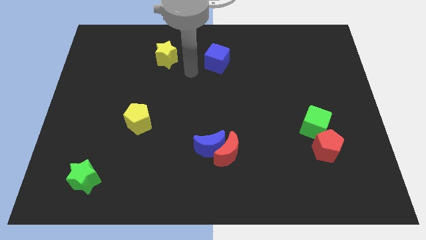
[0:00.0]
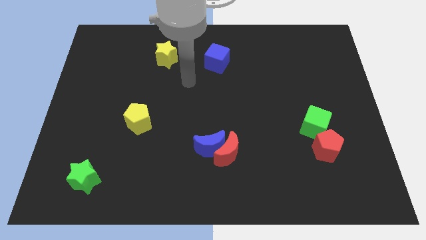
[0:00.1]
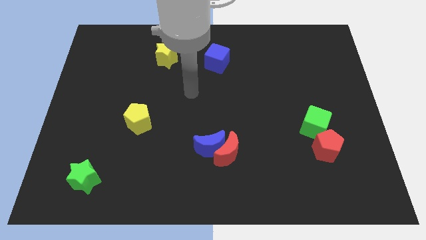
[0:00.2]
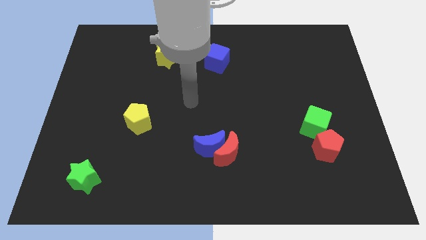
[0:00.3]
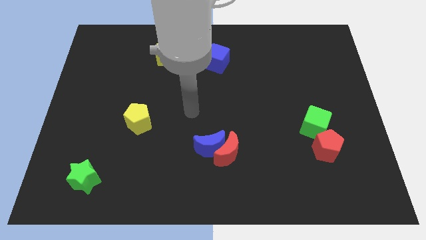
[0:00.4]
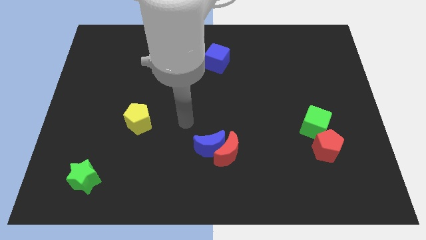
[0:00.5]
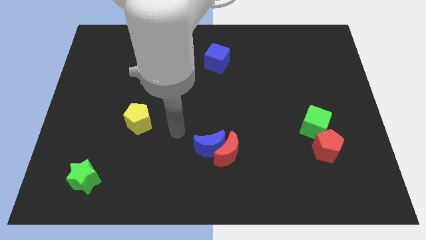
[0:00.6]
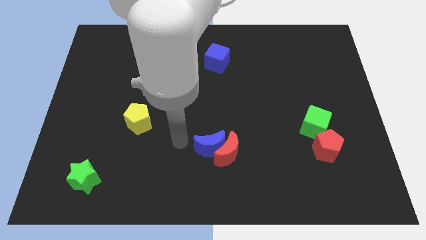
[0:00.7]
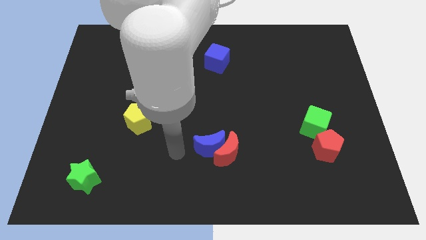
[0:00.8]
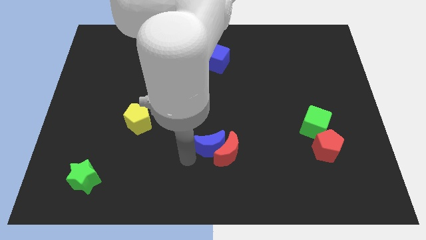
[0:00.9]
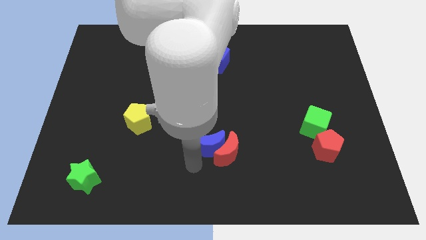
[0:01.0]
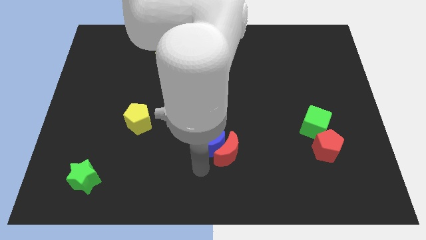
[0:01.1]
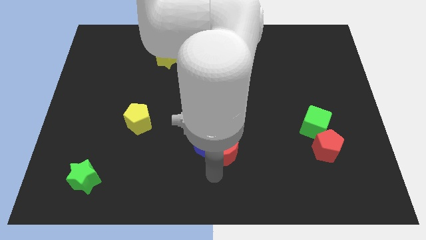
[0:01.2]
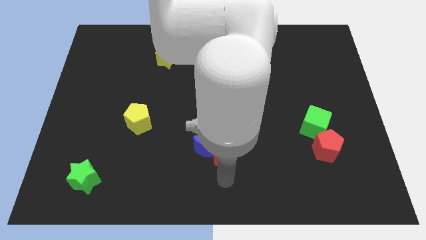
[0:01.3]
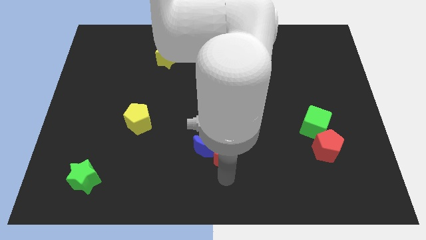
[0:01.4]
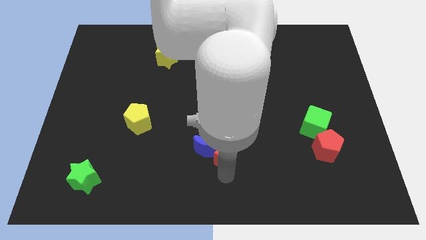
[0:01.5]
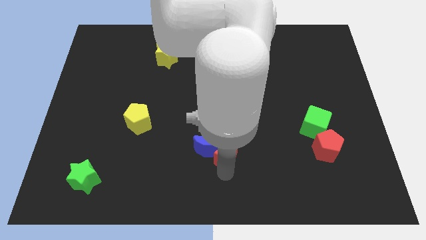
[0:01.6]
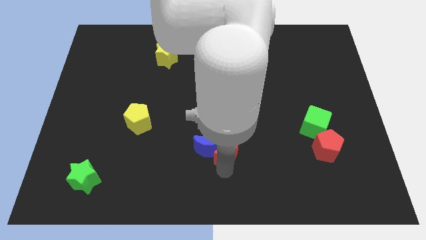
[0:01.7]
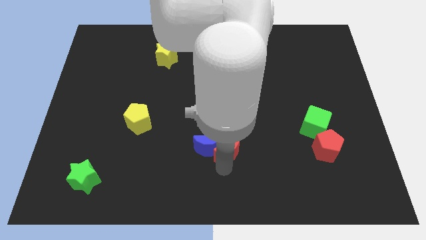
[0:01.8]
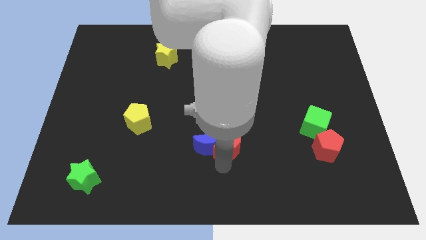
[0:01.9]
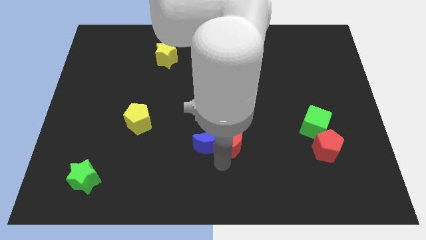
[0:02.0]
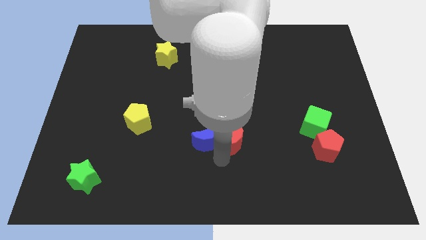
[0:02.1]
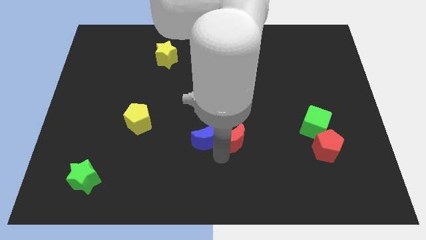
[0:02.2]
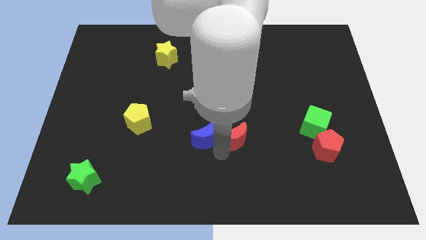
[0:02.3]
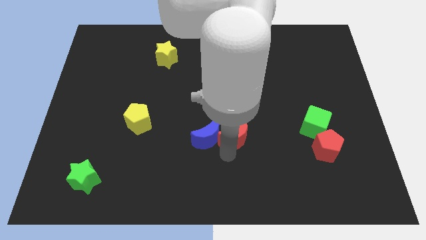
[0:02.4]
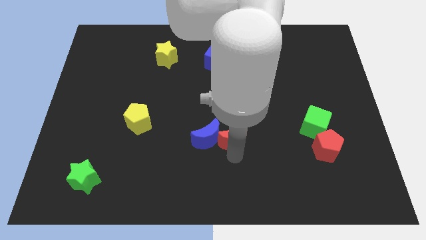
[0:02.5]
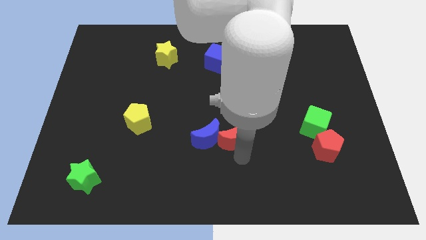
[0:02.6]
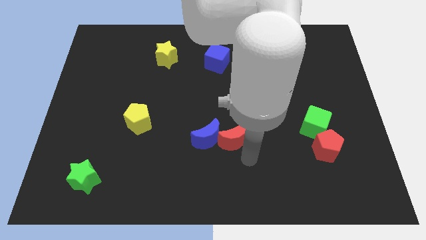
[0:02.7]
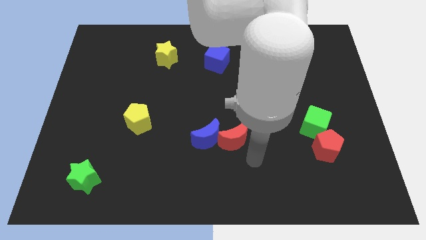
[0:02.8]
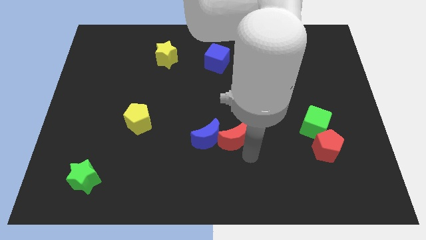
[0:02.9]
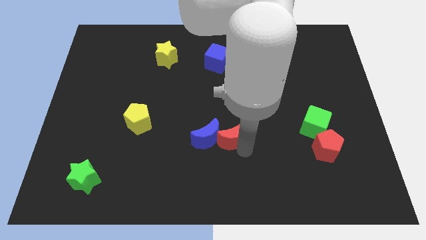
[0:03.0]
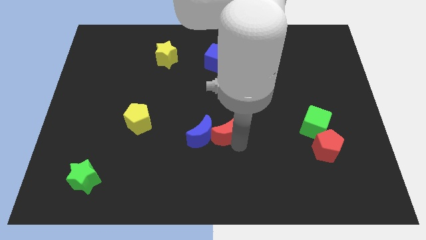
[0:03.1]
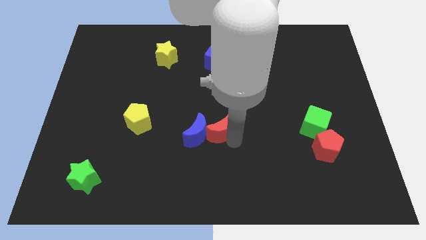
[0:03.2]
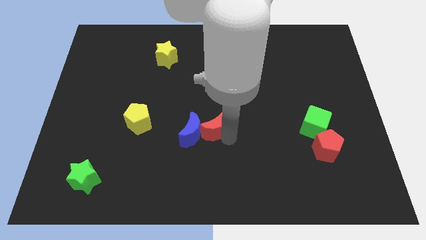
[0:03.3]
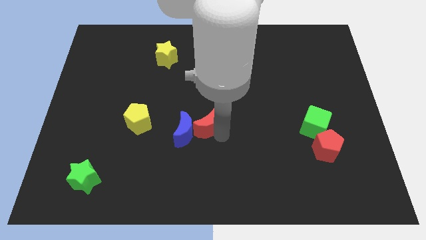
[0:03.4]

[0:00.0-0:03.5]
move the red moon upwards and then to the left a little

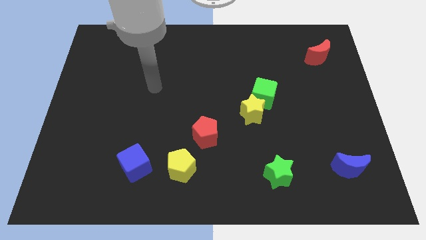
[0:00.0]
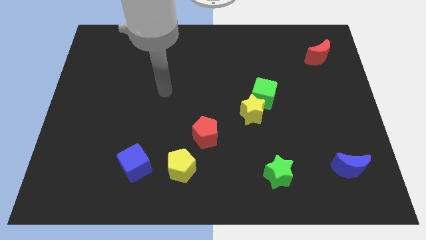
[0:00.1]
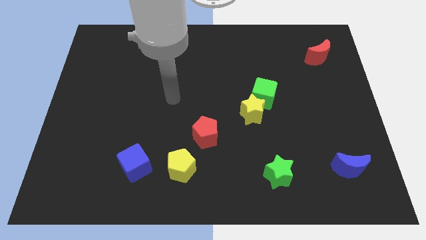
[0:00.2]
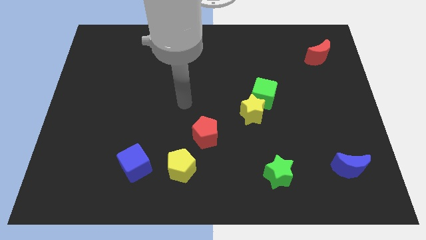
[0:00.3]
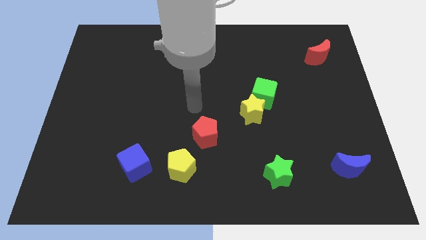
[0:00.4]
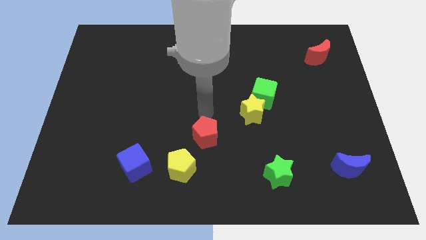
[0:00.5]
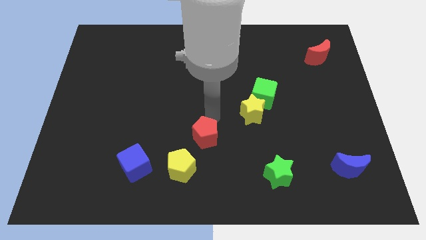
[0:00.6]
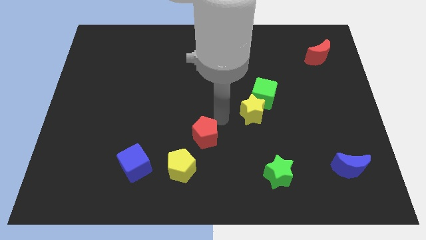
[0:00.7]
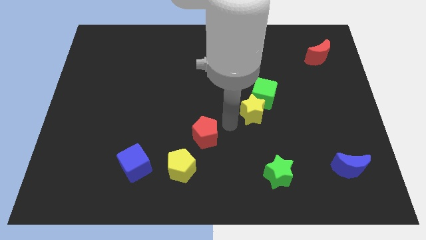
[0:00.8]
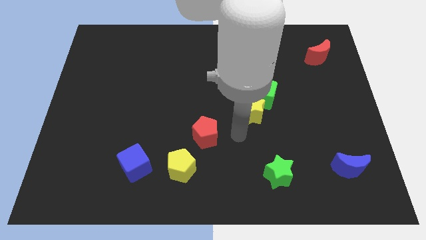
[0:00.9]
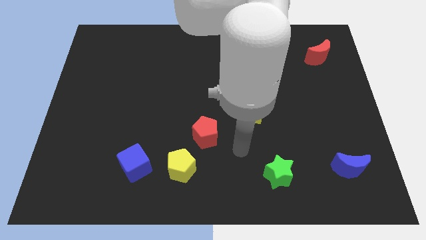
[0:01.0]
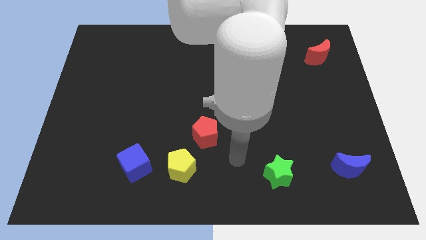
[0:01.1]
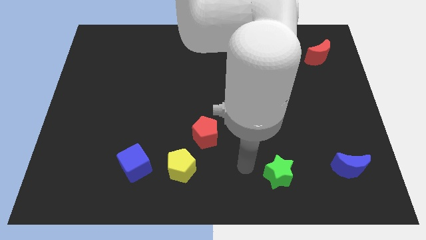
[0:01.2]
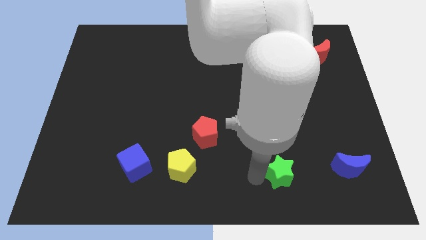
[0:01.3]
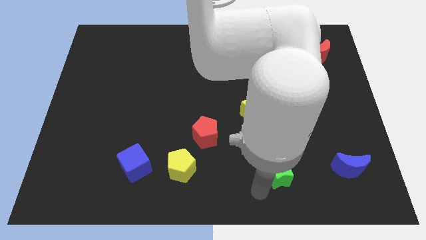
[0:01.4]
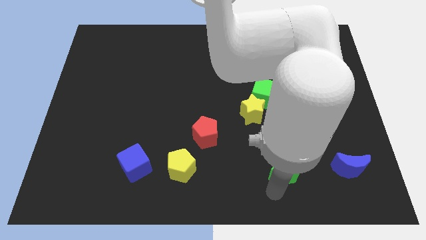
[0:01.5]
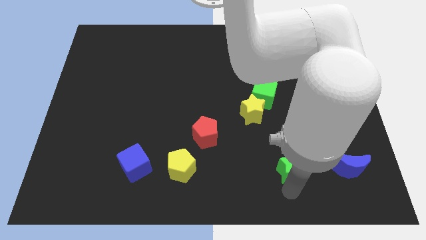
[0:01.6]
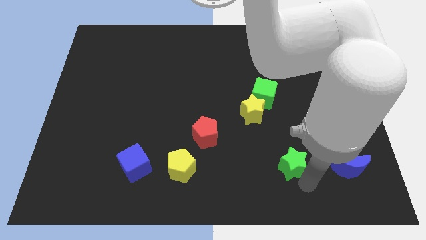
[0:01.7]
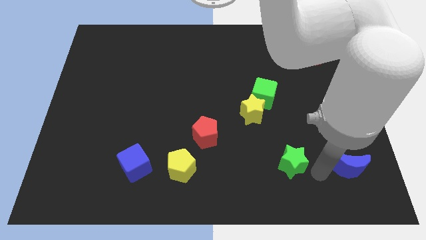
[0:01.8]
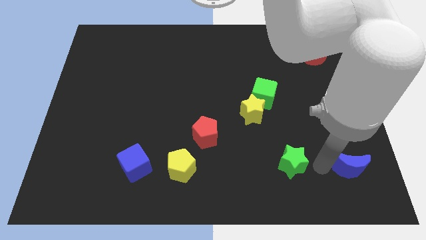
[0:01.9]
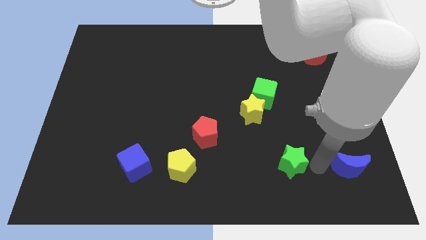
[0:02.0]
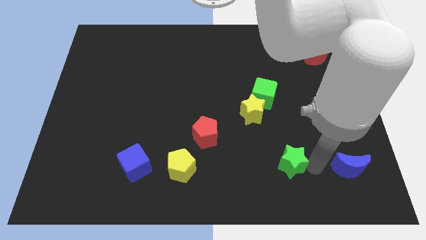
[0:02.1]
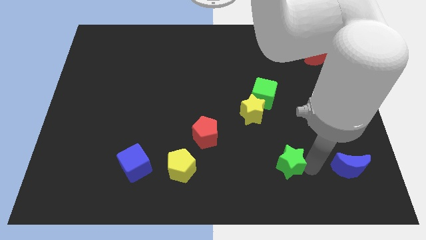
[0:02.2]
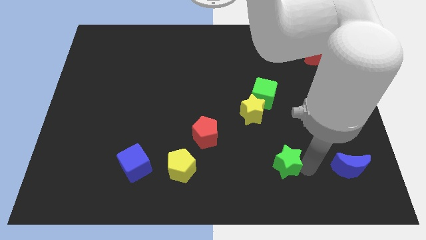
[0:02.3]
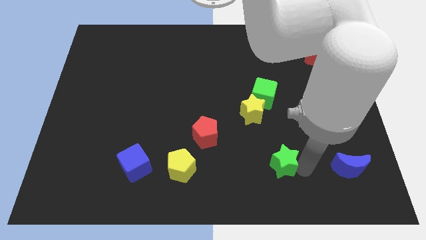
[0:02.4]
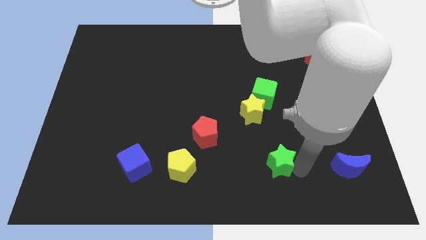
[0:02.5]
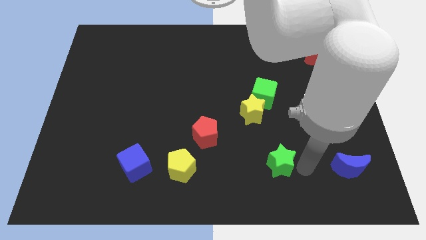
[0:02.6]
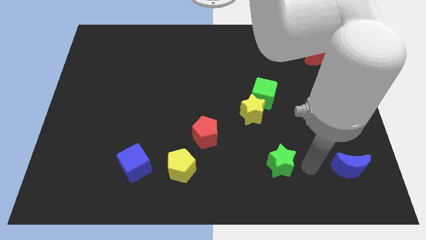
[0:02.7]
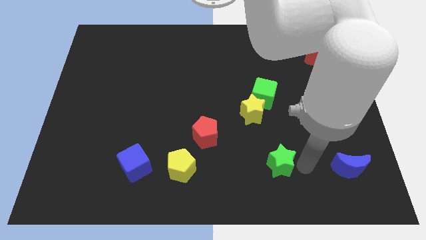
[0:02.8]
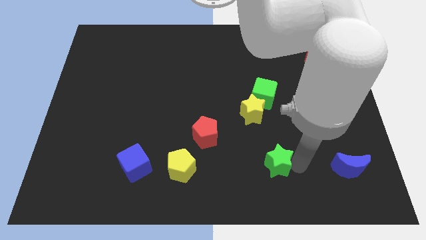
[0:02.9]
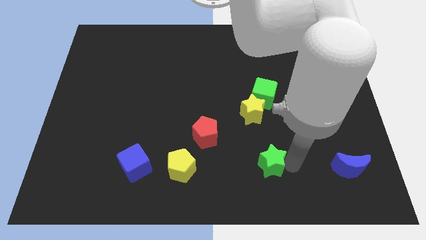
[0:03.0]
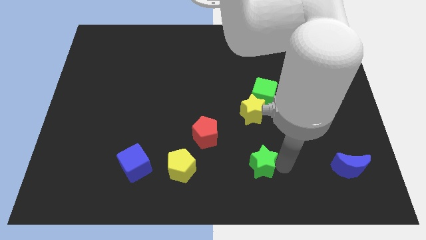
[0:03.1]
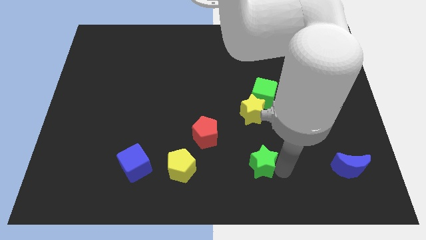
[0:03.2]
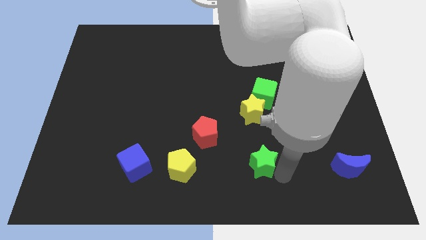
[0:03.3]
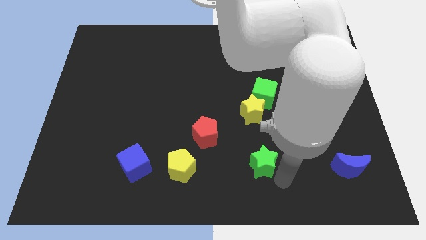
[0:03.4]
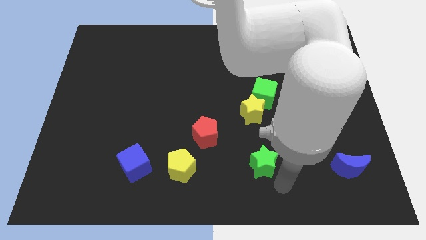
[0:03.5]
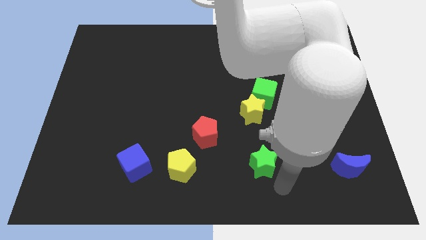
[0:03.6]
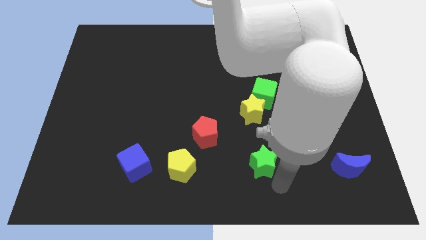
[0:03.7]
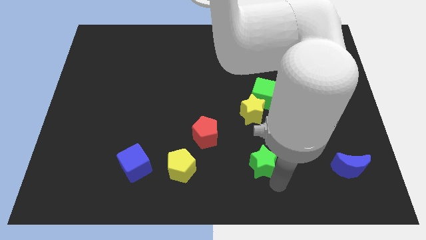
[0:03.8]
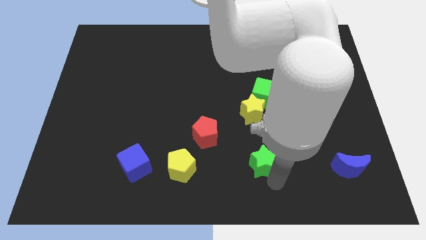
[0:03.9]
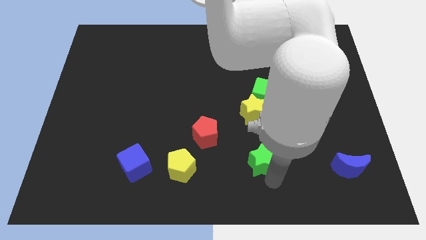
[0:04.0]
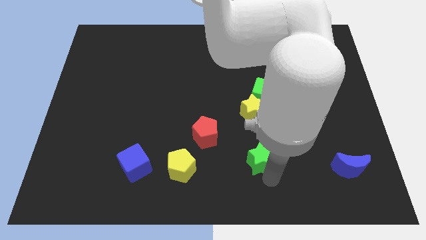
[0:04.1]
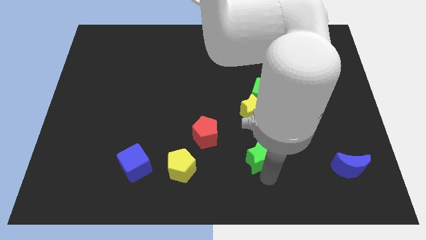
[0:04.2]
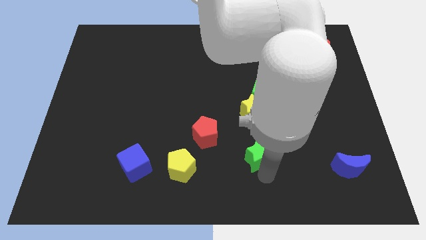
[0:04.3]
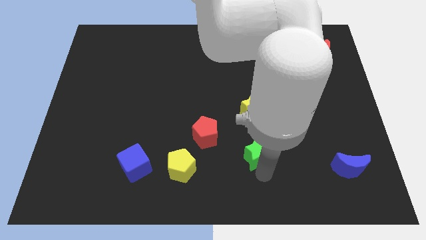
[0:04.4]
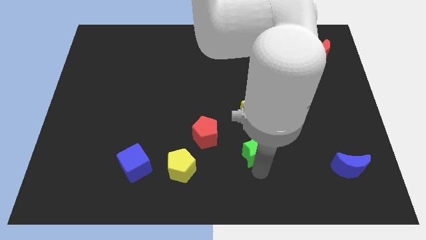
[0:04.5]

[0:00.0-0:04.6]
slightly push the green star upwards and left diagonally

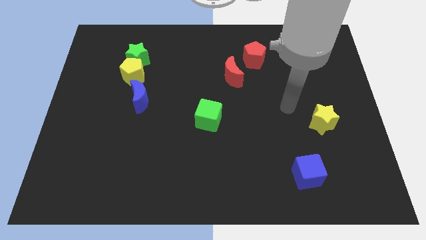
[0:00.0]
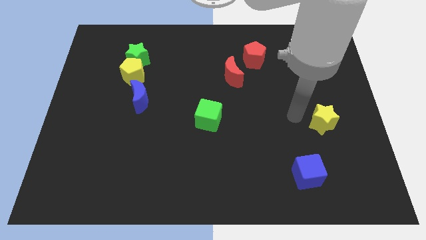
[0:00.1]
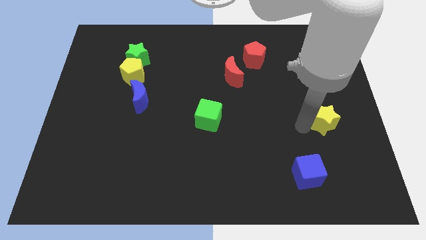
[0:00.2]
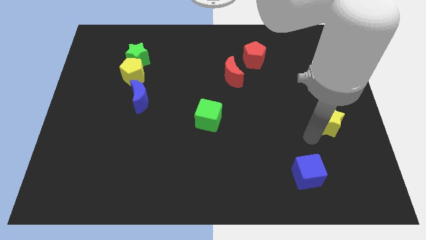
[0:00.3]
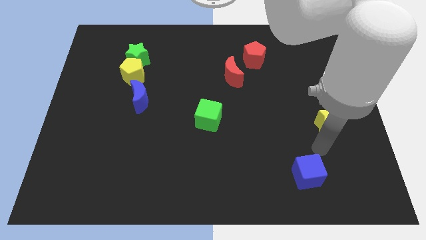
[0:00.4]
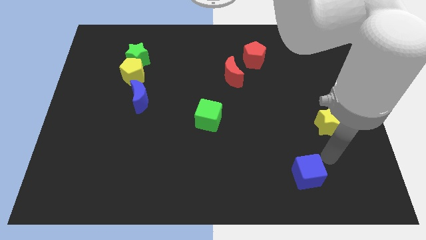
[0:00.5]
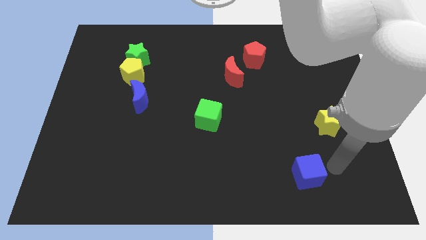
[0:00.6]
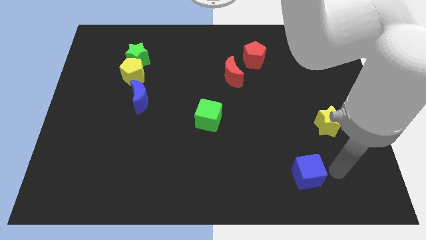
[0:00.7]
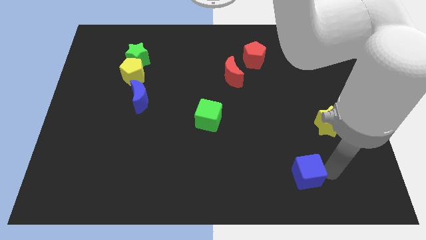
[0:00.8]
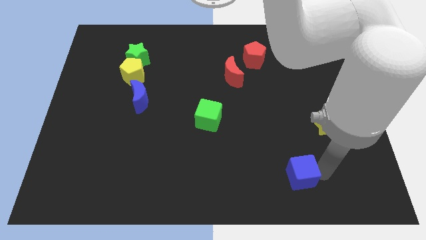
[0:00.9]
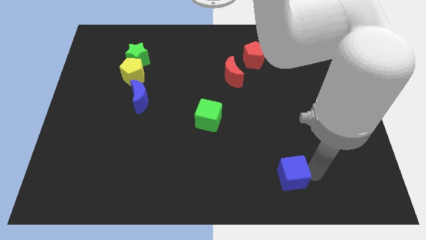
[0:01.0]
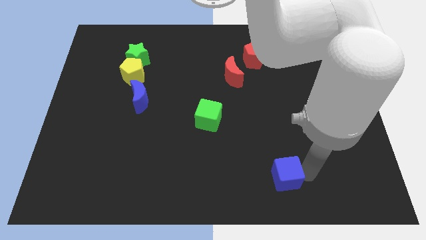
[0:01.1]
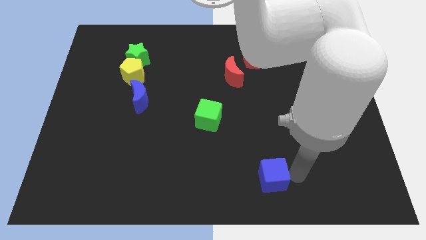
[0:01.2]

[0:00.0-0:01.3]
move the blue cube a bit left
